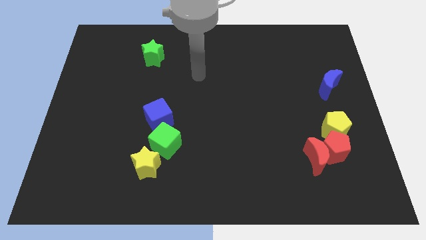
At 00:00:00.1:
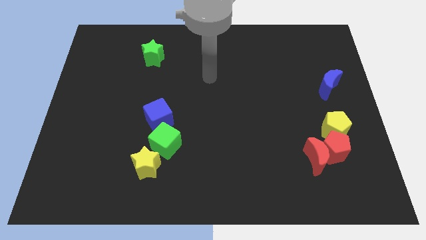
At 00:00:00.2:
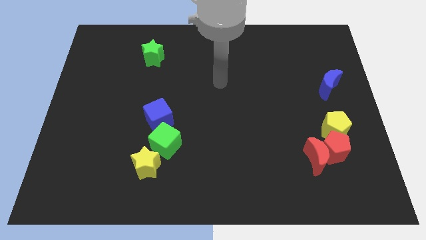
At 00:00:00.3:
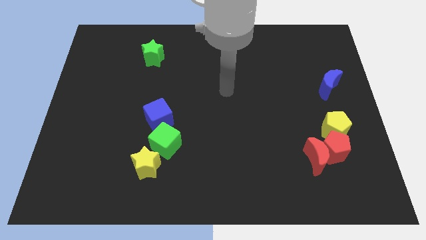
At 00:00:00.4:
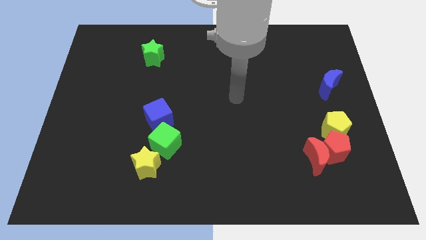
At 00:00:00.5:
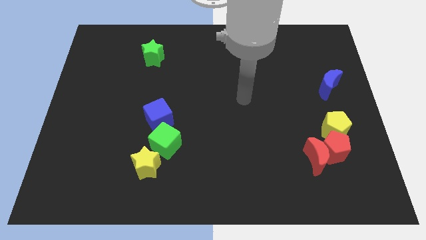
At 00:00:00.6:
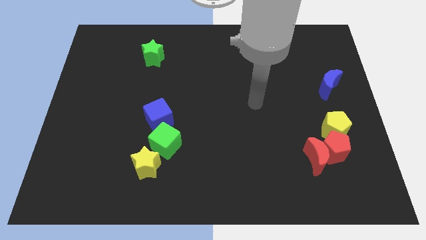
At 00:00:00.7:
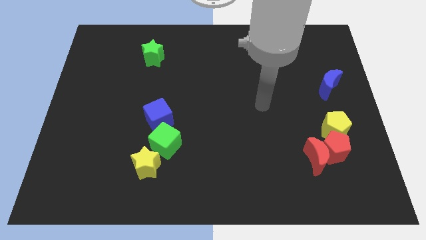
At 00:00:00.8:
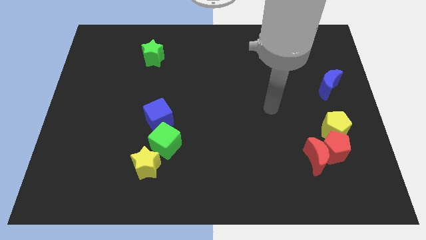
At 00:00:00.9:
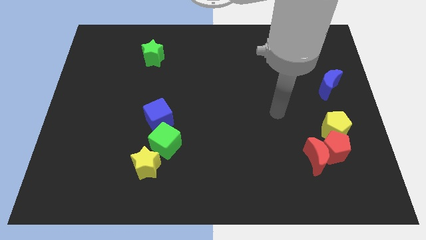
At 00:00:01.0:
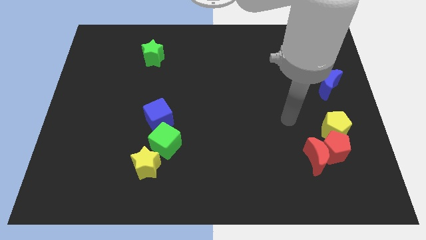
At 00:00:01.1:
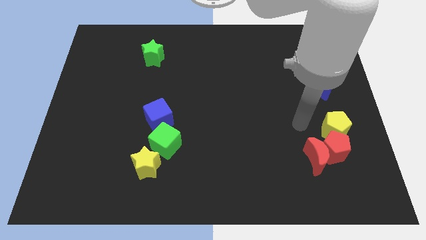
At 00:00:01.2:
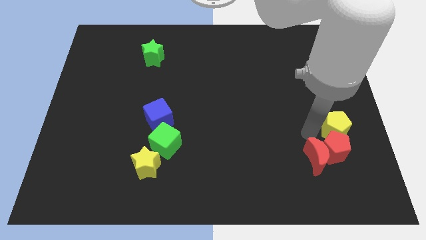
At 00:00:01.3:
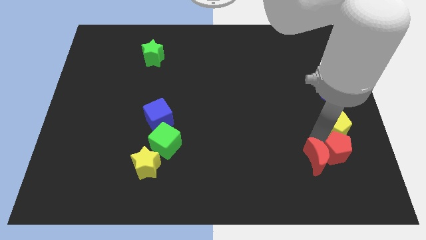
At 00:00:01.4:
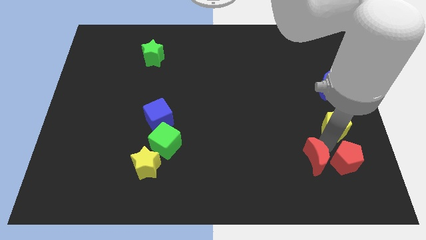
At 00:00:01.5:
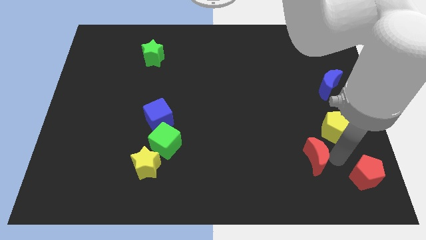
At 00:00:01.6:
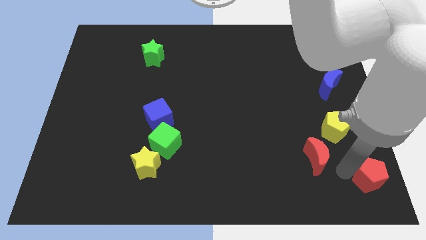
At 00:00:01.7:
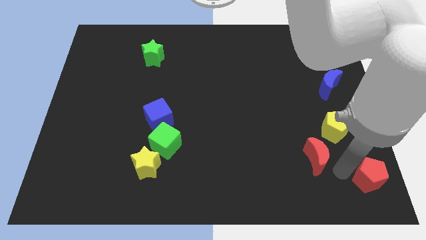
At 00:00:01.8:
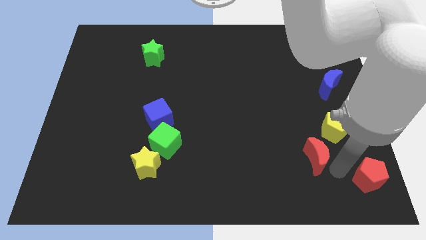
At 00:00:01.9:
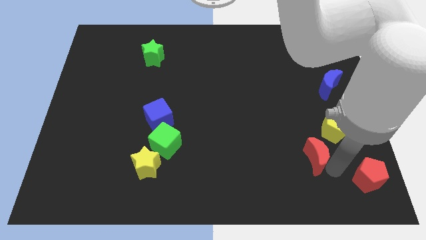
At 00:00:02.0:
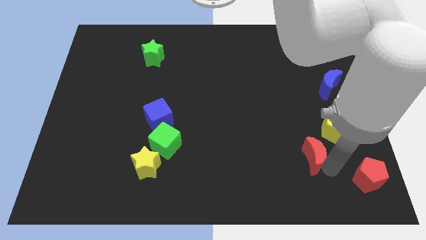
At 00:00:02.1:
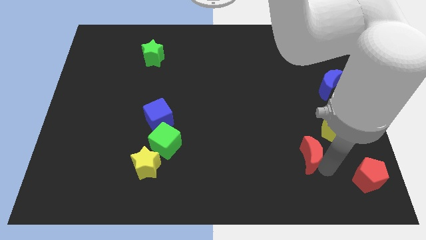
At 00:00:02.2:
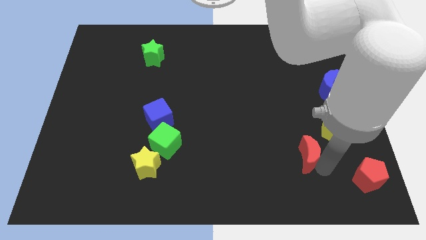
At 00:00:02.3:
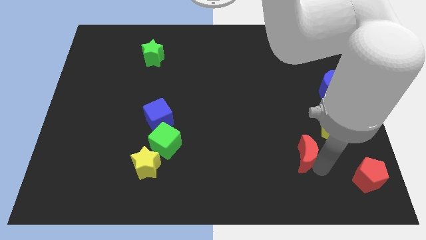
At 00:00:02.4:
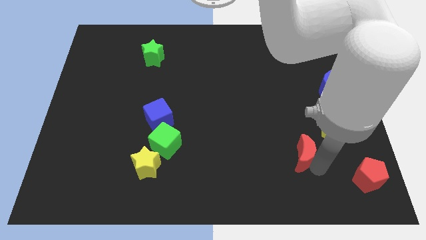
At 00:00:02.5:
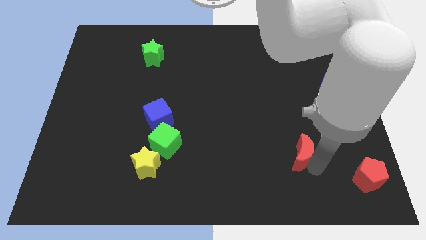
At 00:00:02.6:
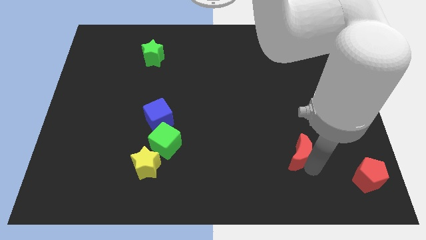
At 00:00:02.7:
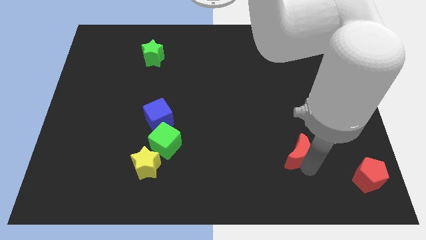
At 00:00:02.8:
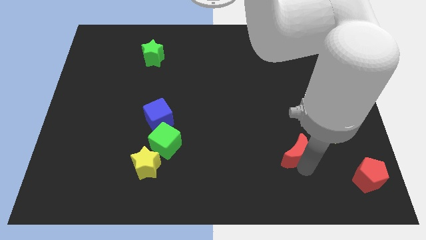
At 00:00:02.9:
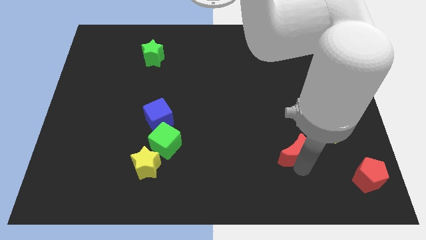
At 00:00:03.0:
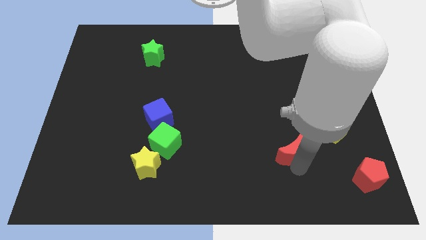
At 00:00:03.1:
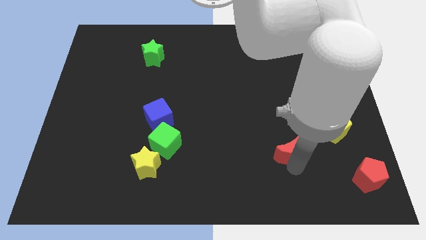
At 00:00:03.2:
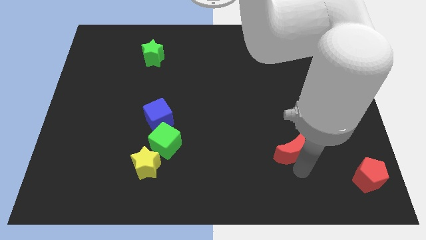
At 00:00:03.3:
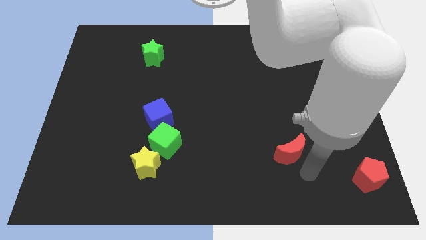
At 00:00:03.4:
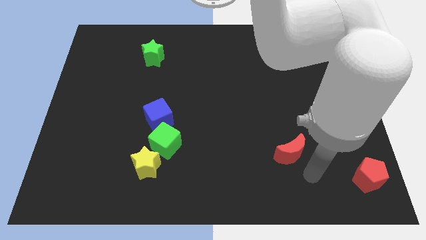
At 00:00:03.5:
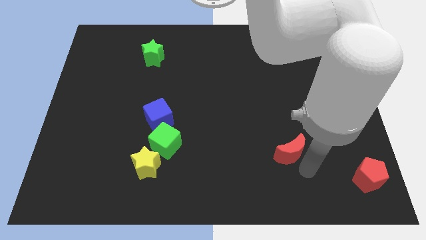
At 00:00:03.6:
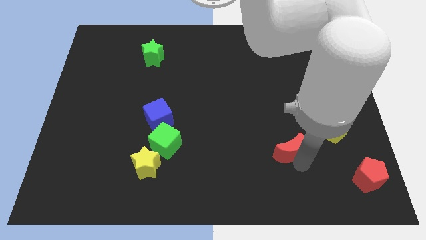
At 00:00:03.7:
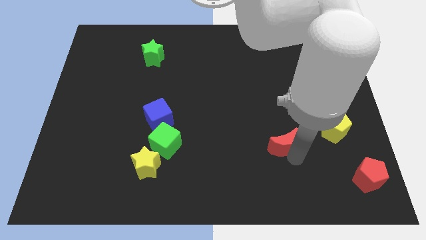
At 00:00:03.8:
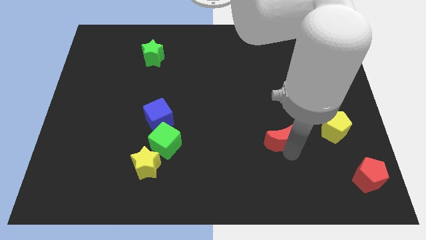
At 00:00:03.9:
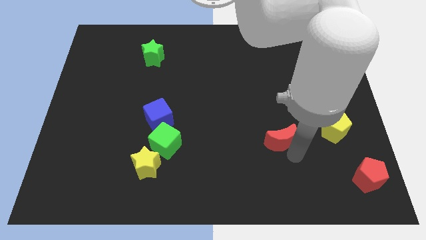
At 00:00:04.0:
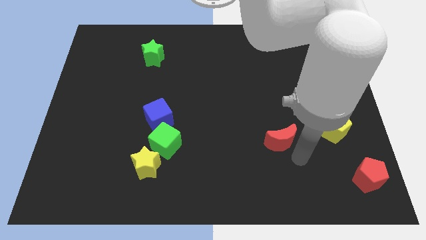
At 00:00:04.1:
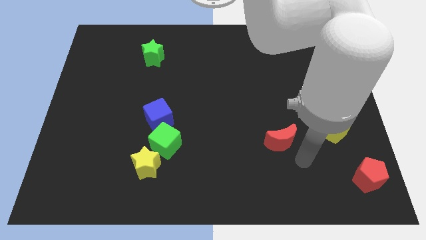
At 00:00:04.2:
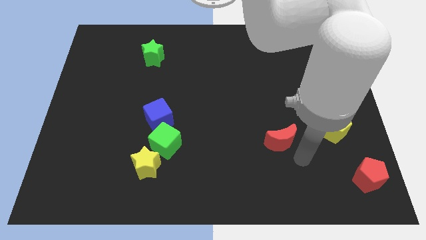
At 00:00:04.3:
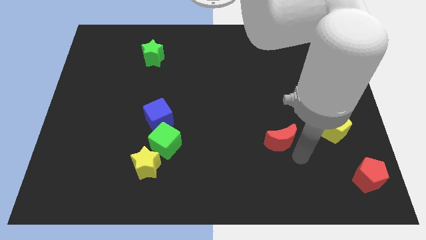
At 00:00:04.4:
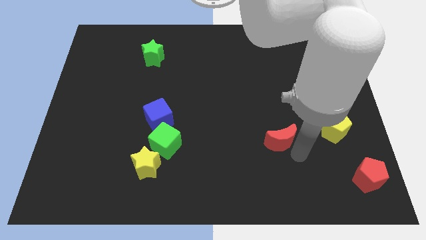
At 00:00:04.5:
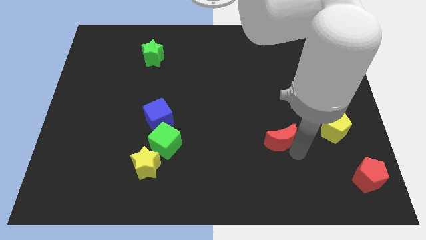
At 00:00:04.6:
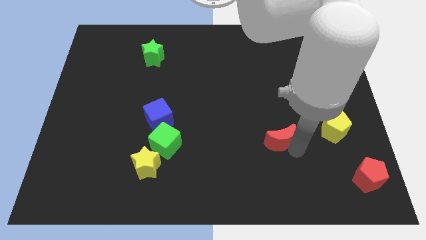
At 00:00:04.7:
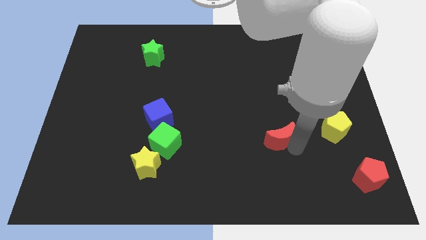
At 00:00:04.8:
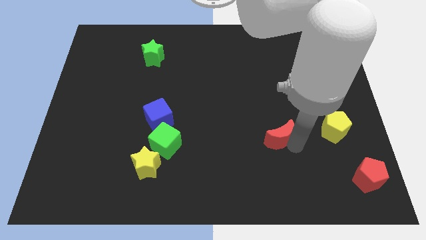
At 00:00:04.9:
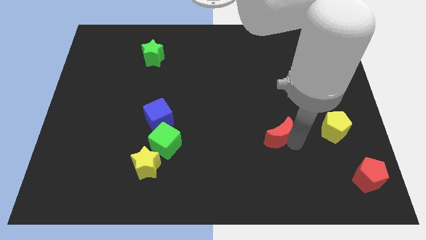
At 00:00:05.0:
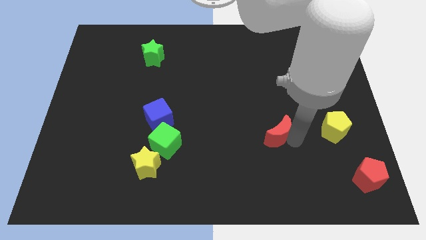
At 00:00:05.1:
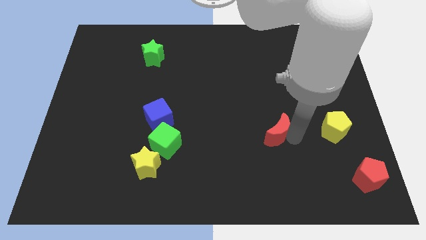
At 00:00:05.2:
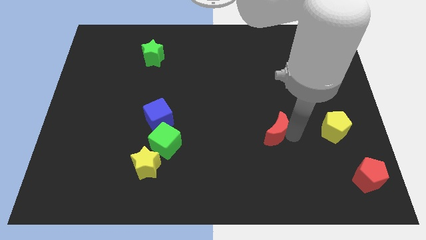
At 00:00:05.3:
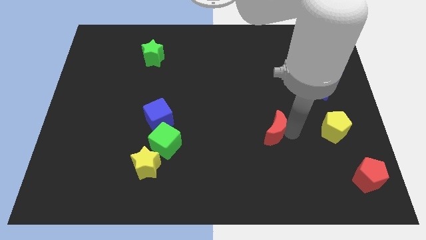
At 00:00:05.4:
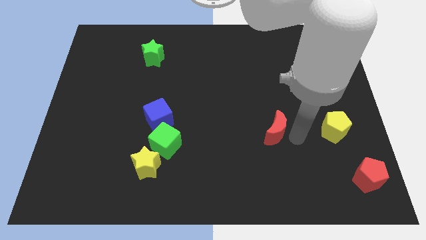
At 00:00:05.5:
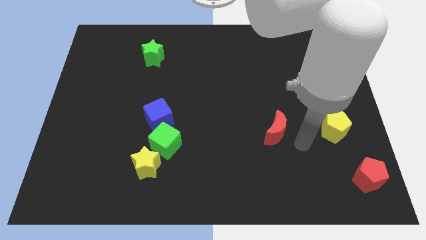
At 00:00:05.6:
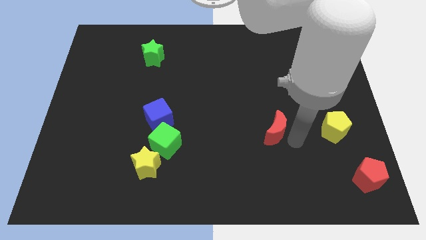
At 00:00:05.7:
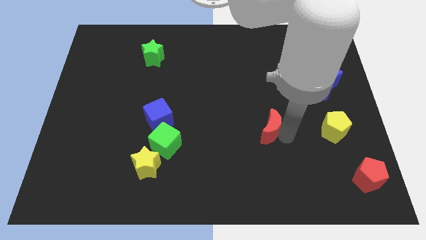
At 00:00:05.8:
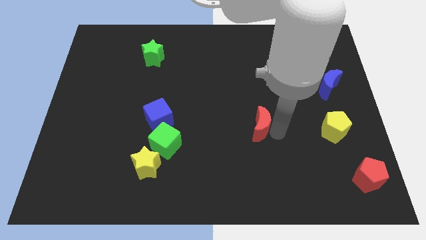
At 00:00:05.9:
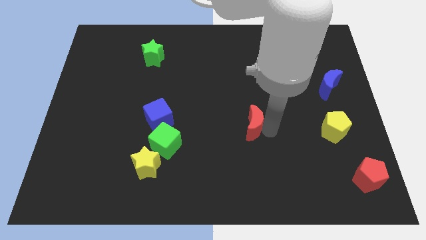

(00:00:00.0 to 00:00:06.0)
slide the red moon to the middle

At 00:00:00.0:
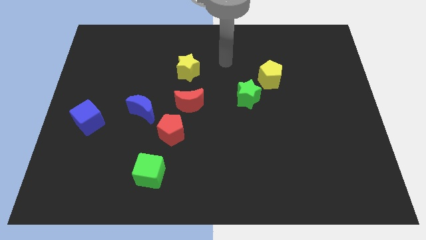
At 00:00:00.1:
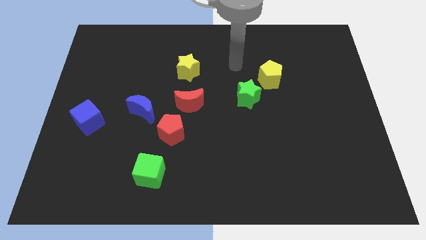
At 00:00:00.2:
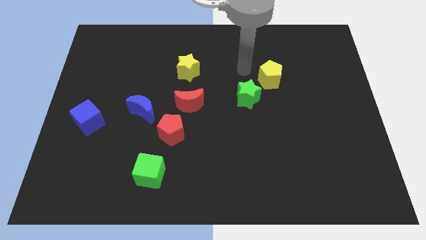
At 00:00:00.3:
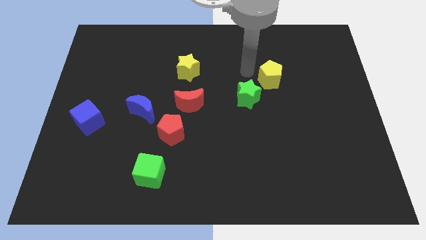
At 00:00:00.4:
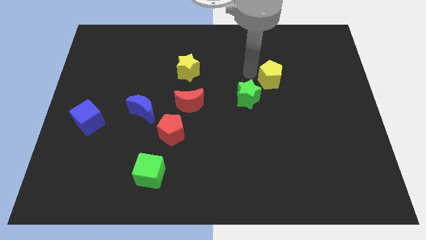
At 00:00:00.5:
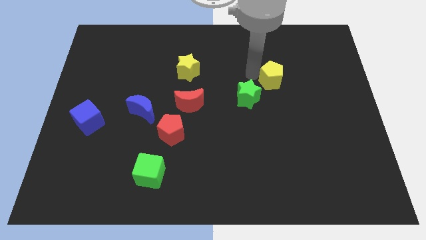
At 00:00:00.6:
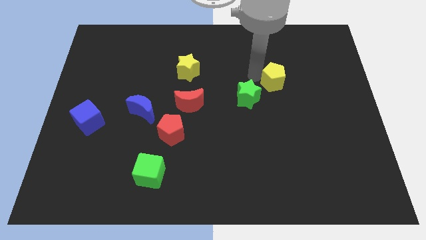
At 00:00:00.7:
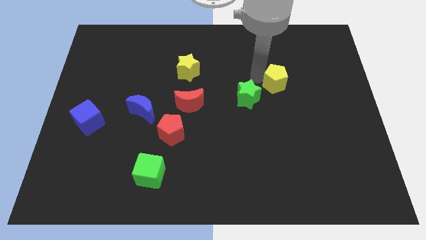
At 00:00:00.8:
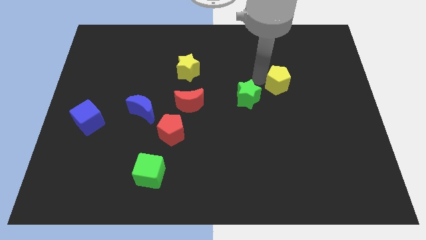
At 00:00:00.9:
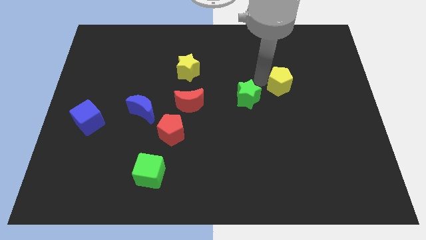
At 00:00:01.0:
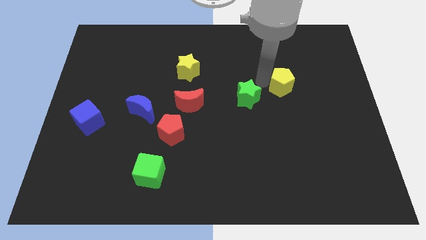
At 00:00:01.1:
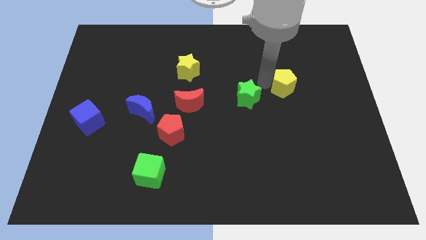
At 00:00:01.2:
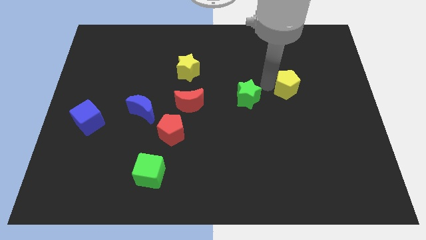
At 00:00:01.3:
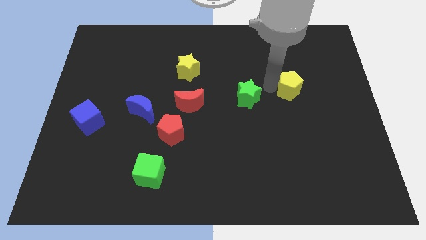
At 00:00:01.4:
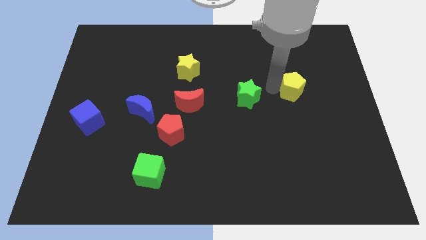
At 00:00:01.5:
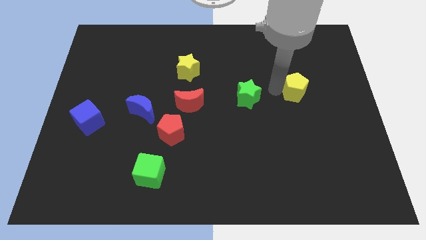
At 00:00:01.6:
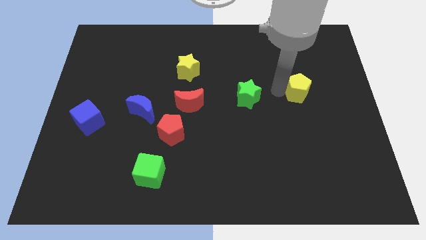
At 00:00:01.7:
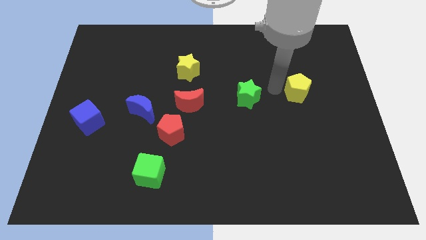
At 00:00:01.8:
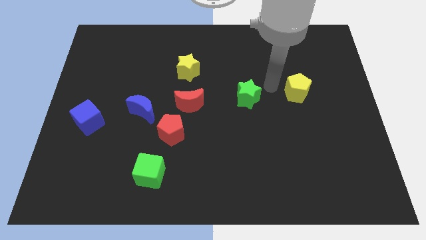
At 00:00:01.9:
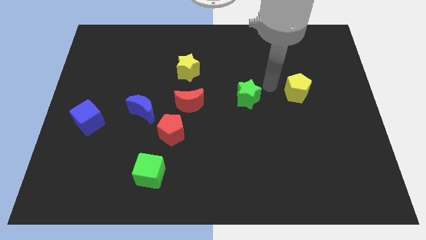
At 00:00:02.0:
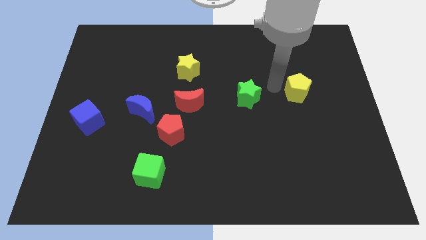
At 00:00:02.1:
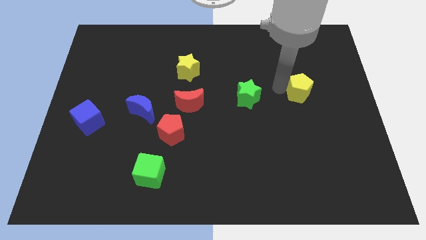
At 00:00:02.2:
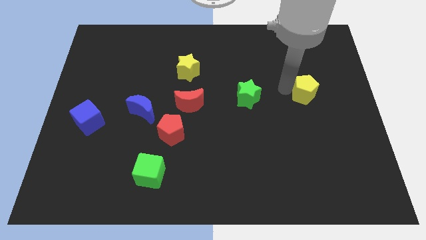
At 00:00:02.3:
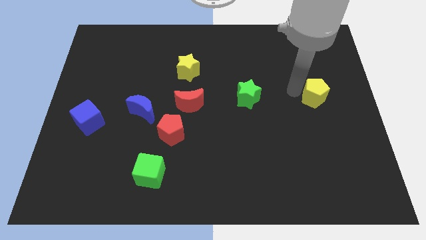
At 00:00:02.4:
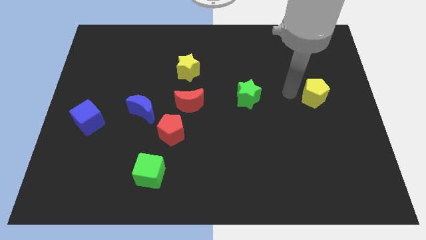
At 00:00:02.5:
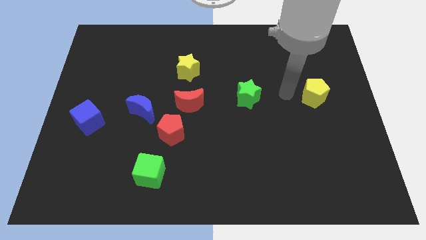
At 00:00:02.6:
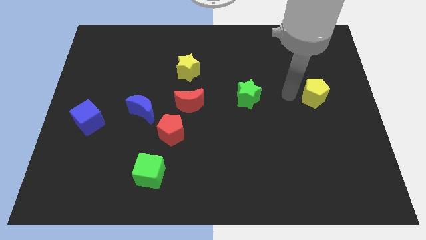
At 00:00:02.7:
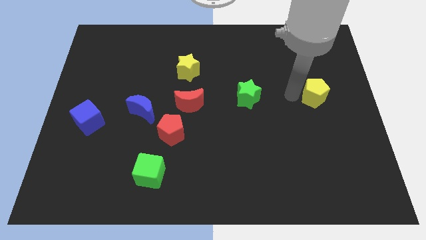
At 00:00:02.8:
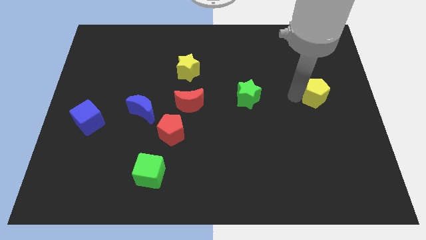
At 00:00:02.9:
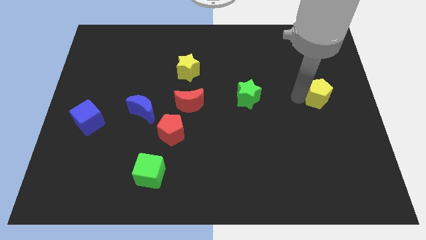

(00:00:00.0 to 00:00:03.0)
push the yellow pentagon to the right side
